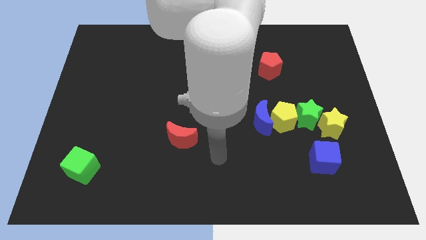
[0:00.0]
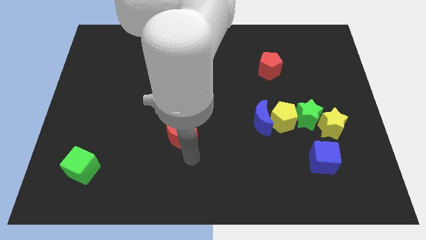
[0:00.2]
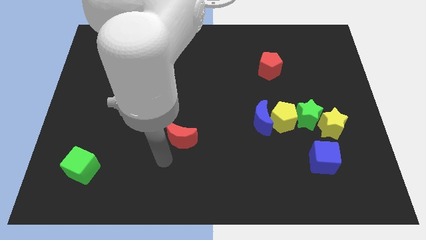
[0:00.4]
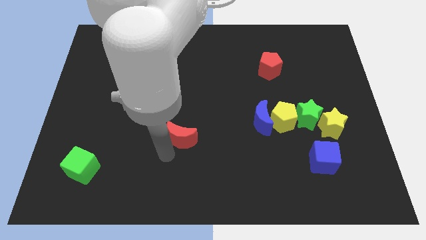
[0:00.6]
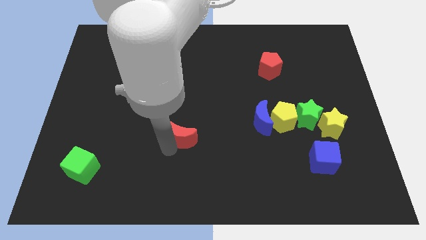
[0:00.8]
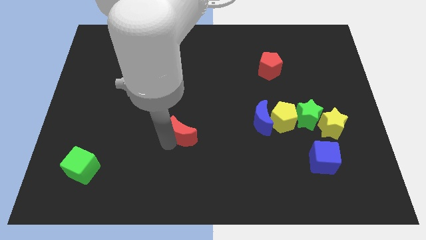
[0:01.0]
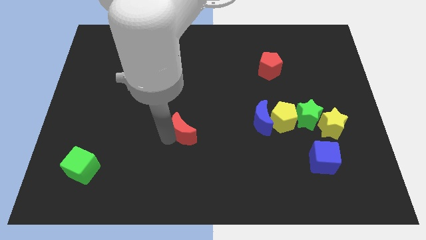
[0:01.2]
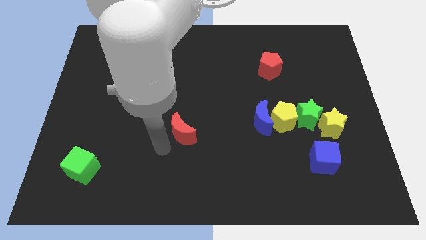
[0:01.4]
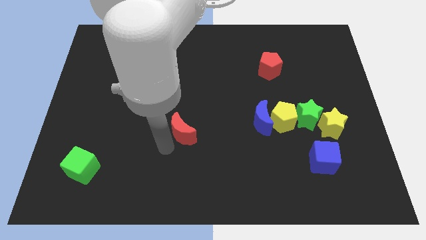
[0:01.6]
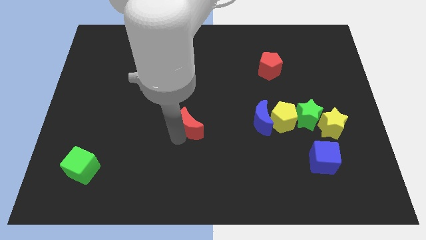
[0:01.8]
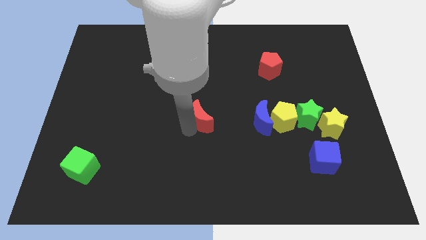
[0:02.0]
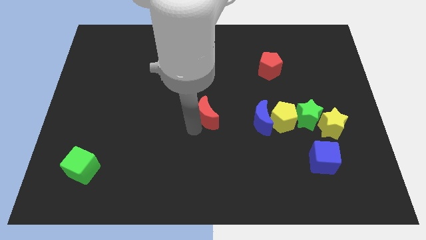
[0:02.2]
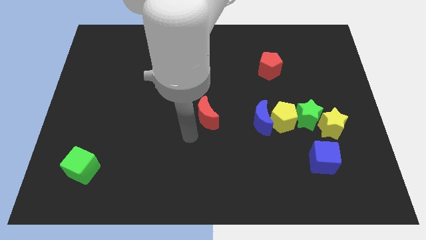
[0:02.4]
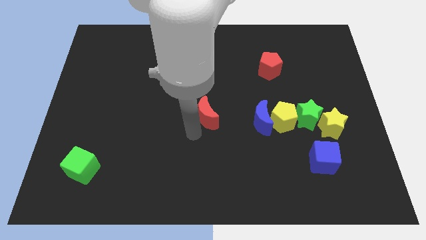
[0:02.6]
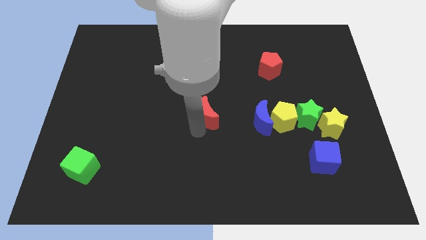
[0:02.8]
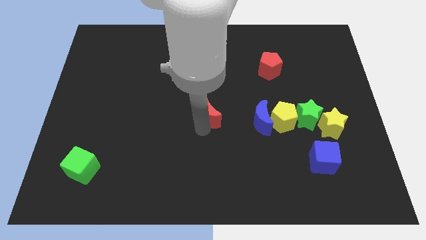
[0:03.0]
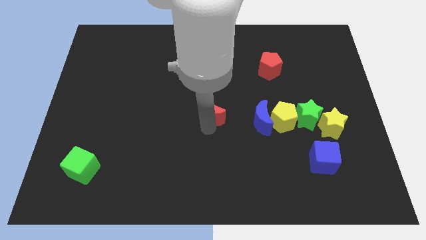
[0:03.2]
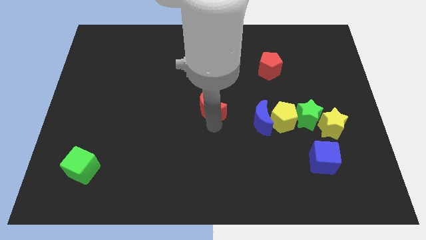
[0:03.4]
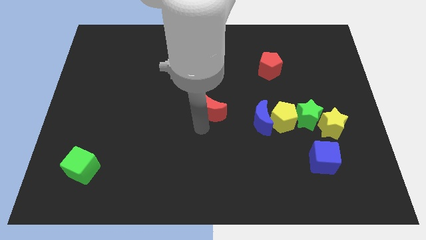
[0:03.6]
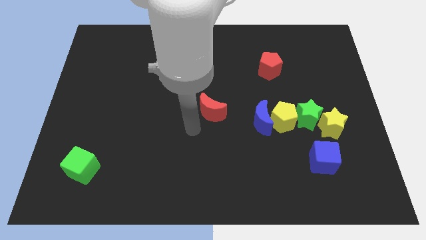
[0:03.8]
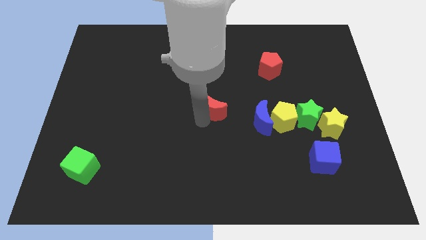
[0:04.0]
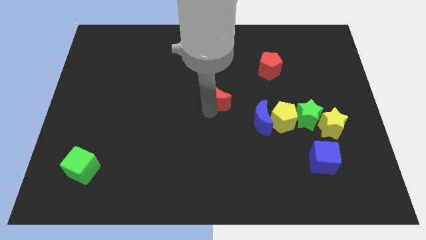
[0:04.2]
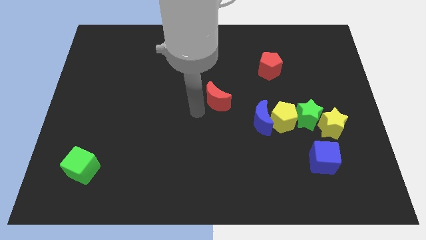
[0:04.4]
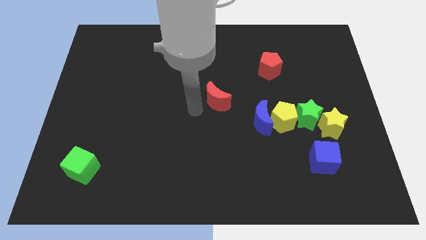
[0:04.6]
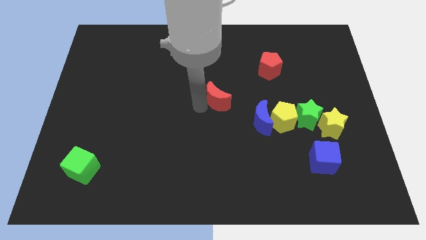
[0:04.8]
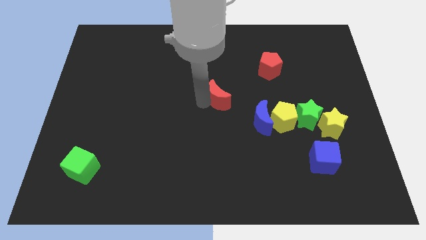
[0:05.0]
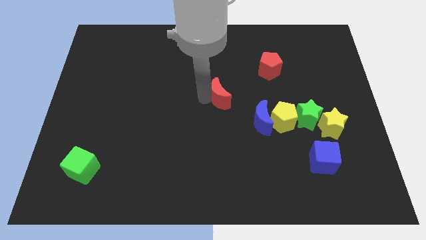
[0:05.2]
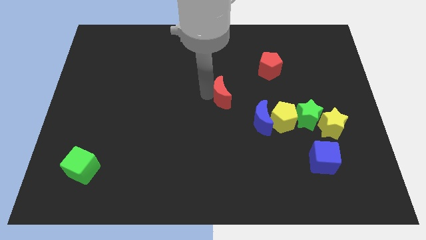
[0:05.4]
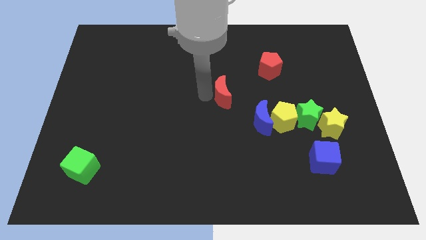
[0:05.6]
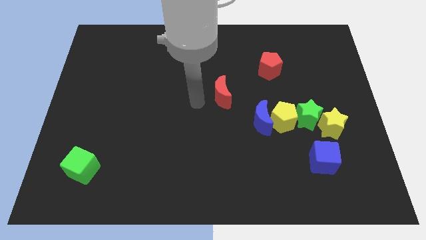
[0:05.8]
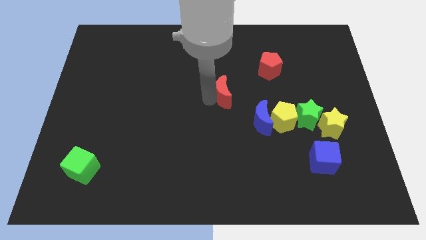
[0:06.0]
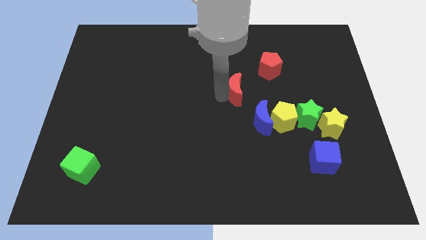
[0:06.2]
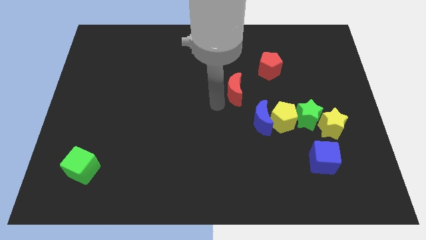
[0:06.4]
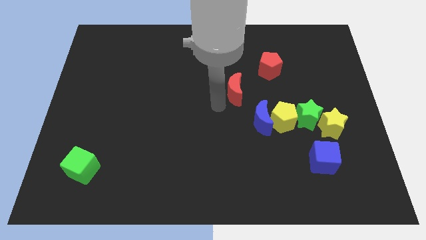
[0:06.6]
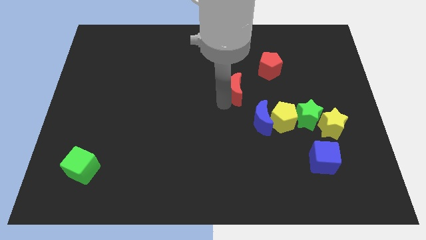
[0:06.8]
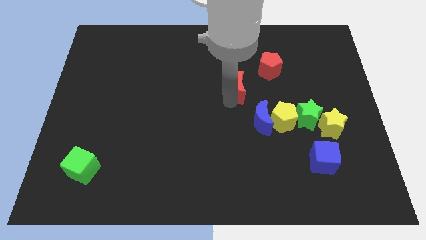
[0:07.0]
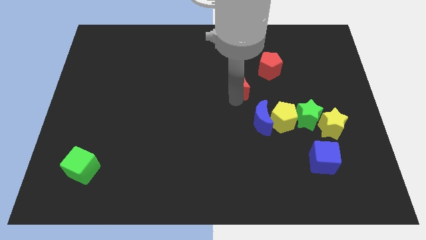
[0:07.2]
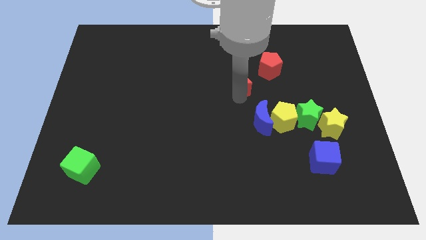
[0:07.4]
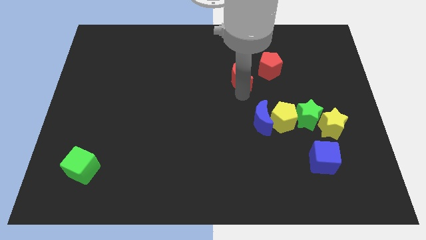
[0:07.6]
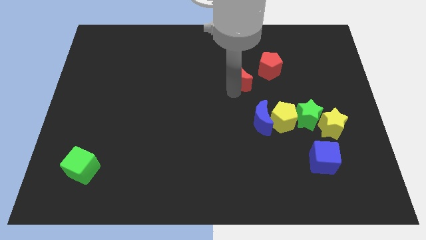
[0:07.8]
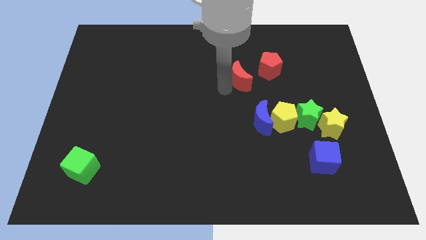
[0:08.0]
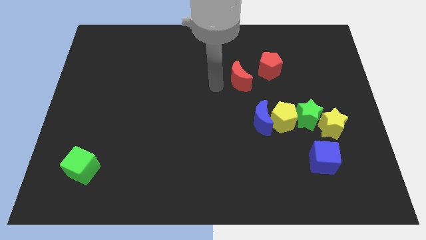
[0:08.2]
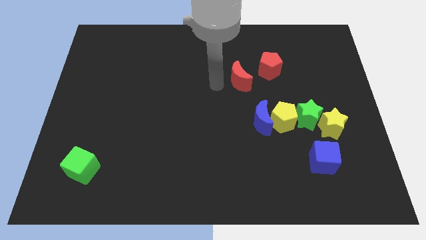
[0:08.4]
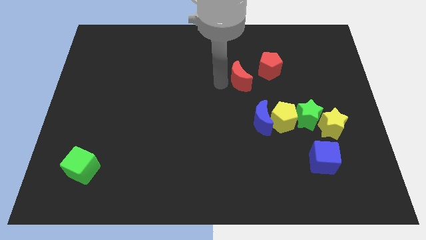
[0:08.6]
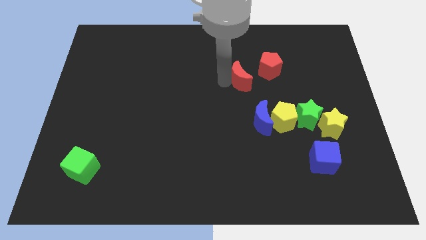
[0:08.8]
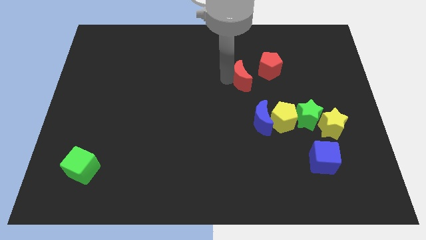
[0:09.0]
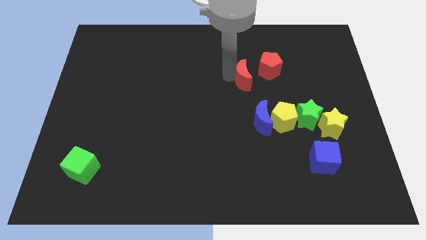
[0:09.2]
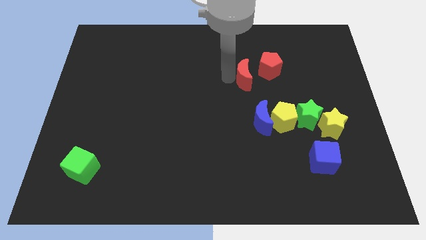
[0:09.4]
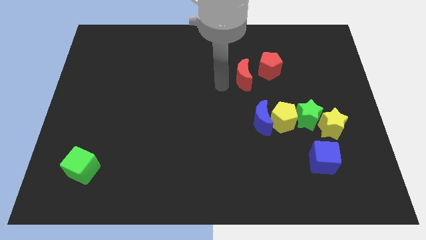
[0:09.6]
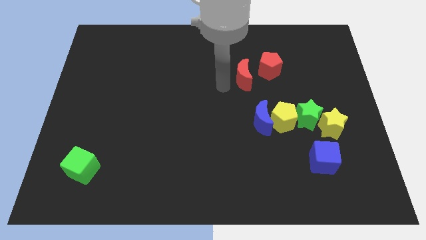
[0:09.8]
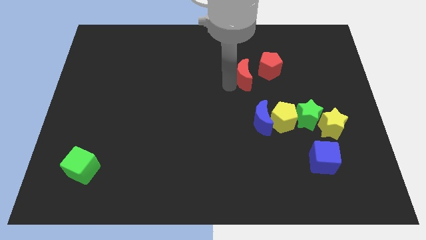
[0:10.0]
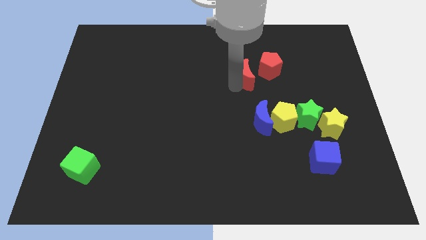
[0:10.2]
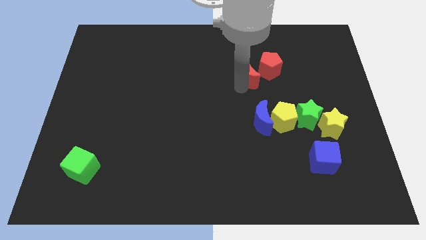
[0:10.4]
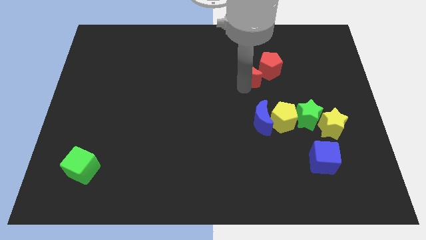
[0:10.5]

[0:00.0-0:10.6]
put the red moon next to the red pentagon

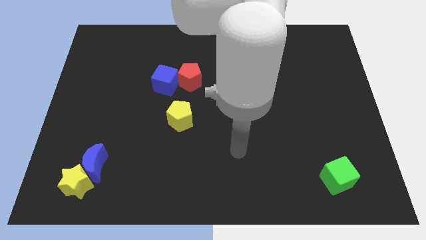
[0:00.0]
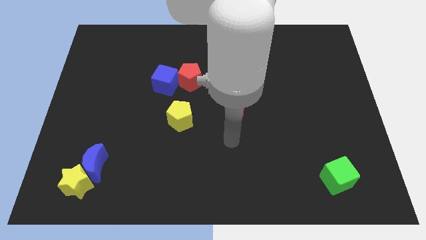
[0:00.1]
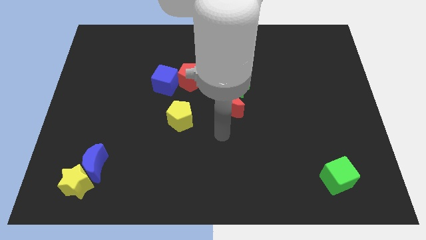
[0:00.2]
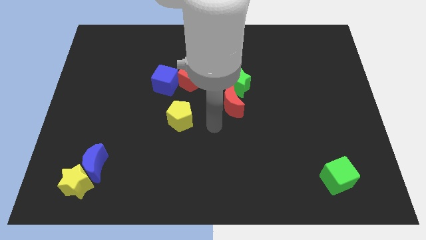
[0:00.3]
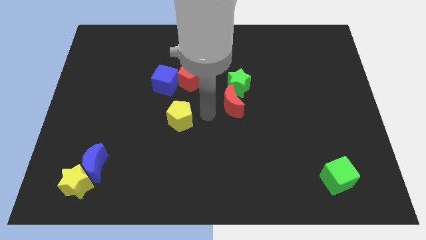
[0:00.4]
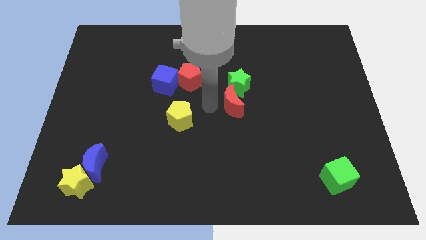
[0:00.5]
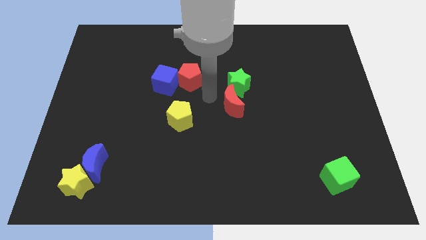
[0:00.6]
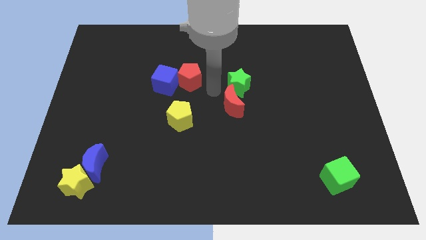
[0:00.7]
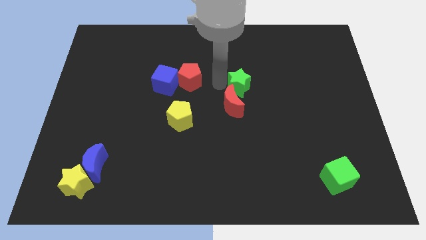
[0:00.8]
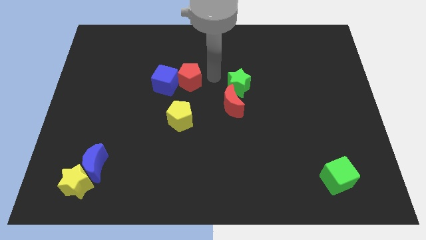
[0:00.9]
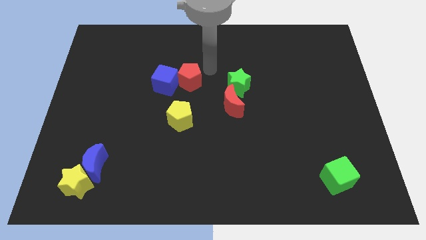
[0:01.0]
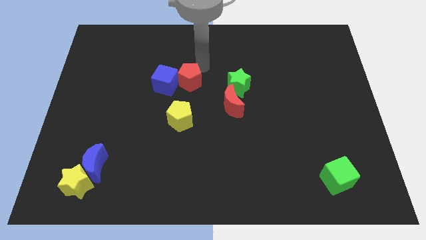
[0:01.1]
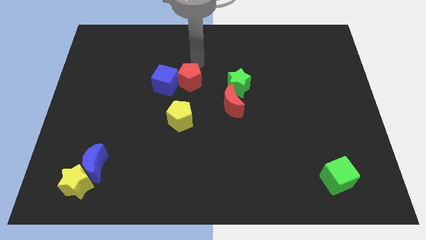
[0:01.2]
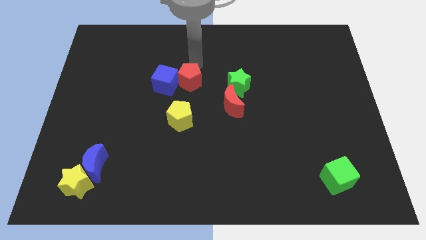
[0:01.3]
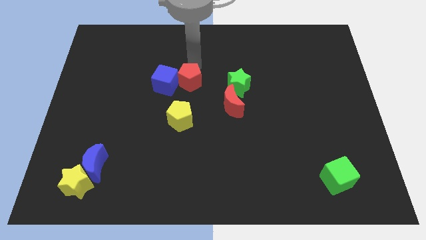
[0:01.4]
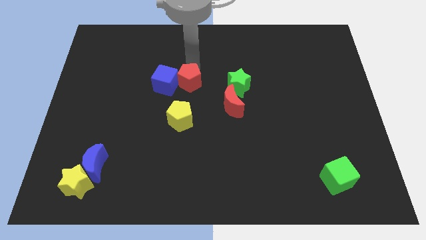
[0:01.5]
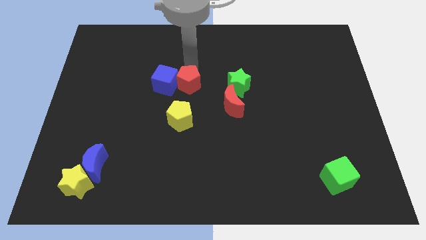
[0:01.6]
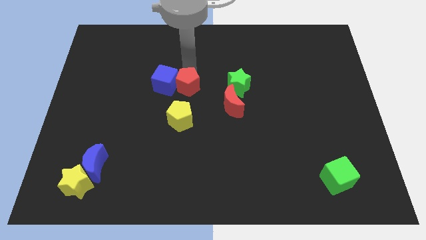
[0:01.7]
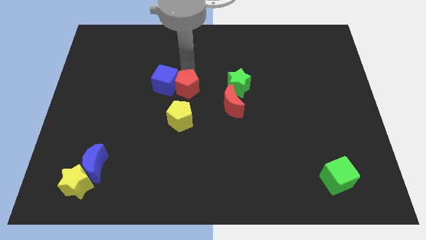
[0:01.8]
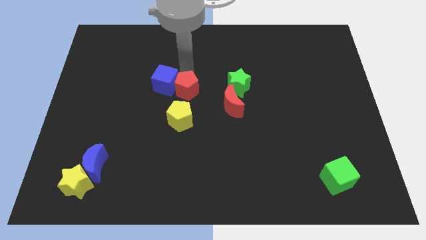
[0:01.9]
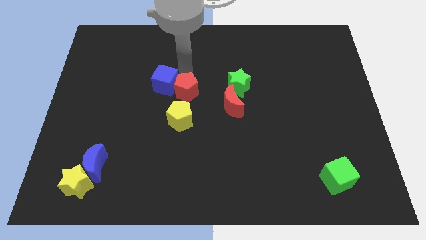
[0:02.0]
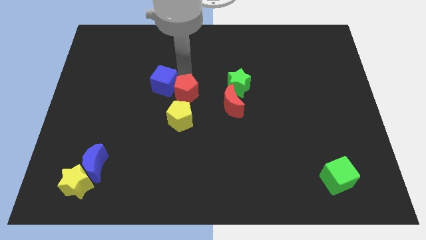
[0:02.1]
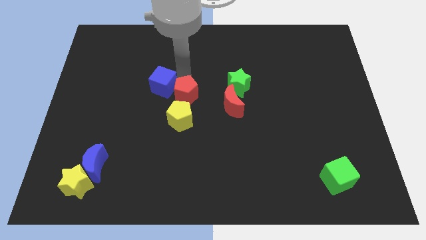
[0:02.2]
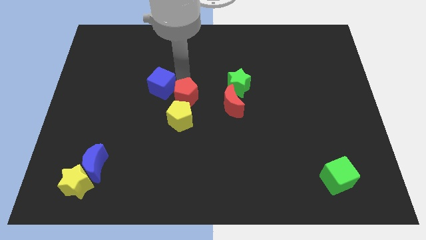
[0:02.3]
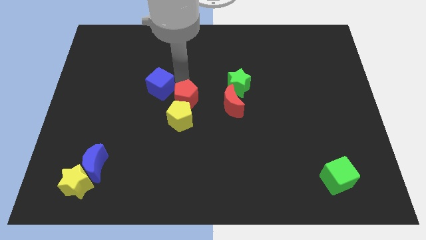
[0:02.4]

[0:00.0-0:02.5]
slide the red pentagon next to the yellow pentagon
